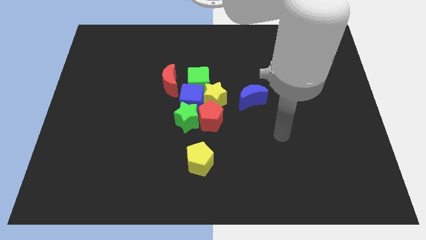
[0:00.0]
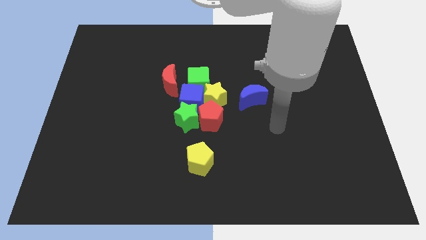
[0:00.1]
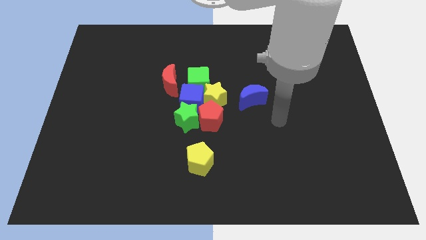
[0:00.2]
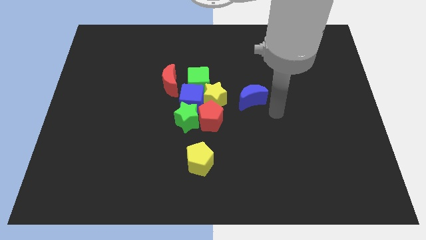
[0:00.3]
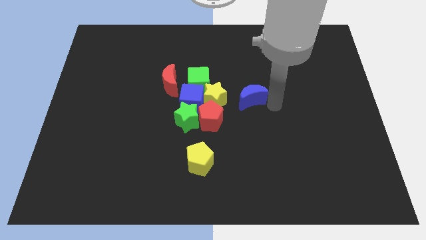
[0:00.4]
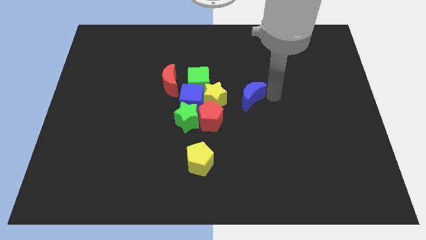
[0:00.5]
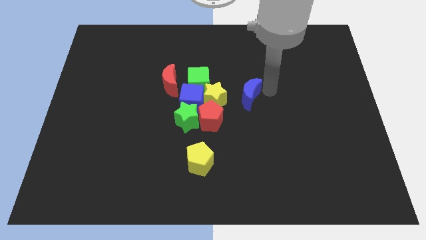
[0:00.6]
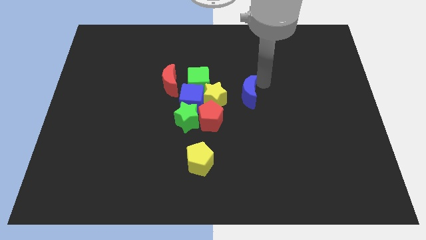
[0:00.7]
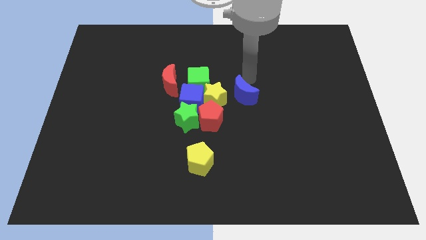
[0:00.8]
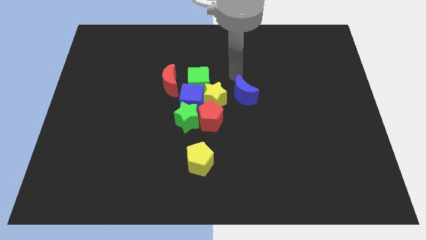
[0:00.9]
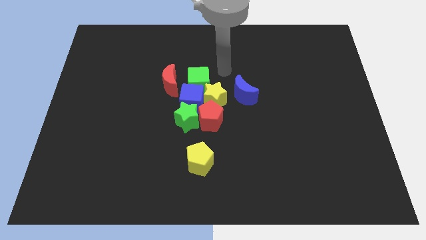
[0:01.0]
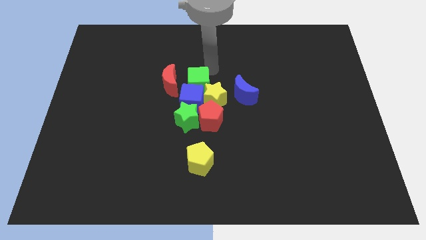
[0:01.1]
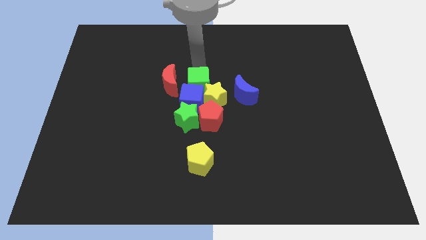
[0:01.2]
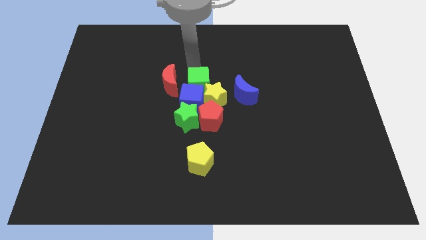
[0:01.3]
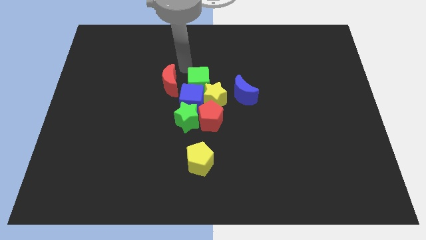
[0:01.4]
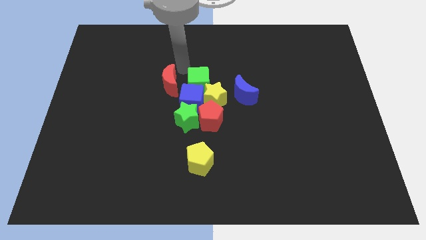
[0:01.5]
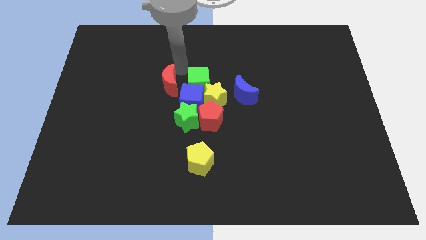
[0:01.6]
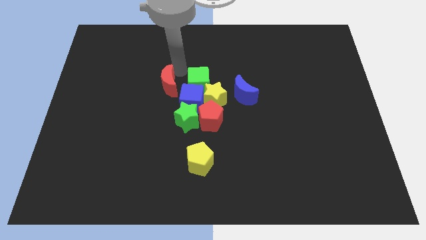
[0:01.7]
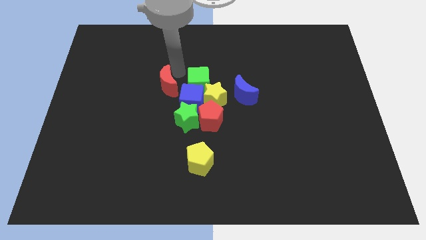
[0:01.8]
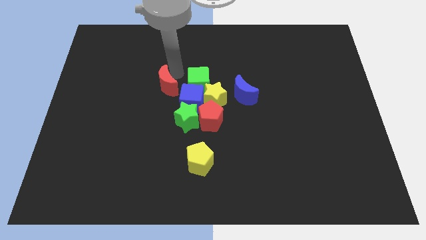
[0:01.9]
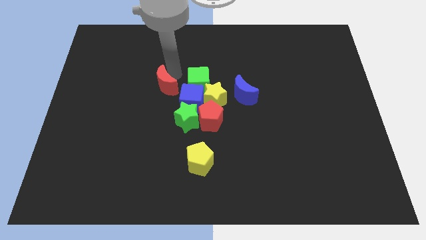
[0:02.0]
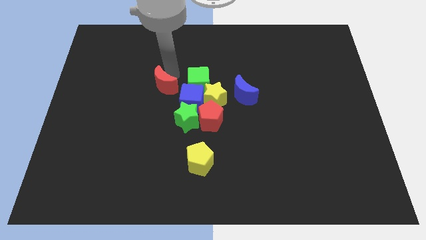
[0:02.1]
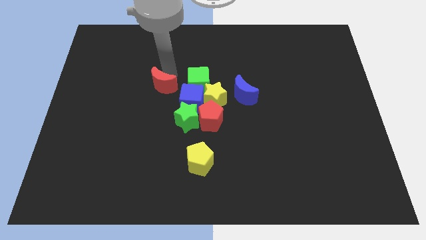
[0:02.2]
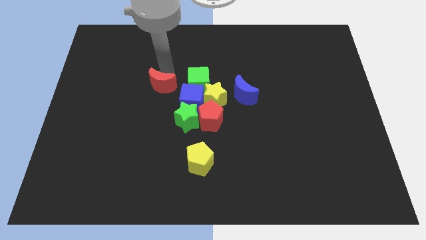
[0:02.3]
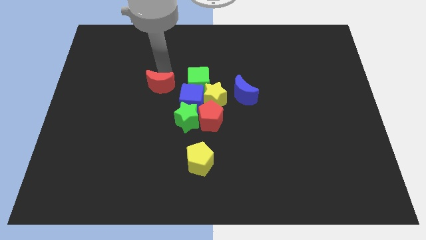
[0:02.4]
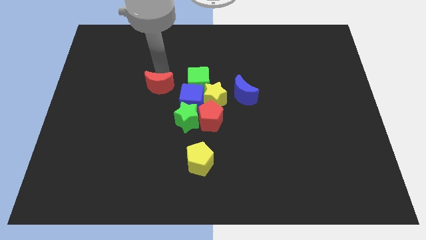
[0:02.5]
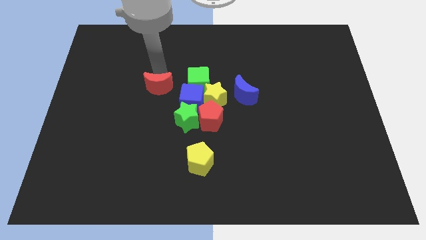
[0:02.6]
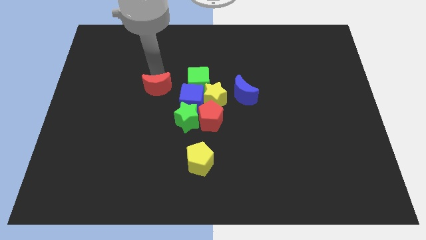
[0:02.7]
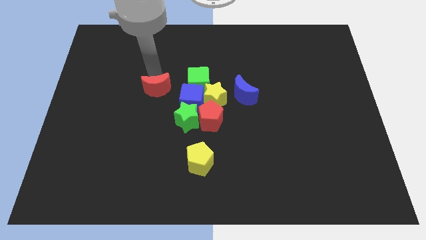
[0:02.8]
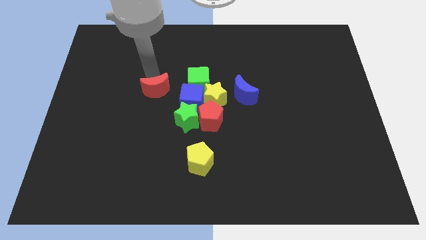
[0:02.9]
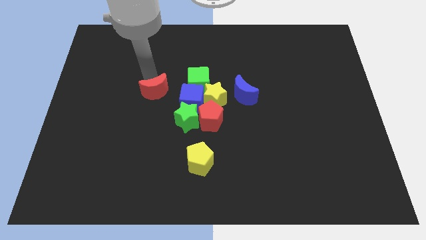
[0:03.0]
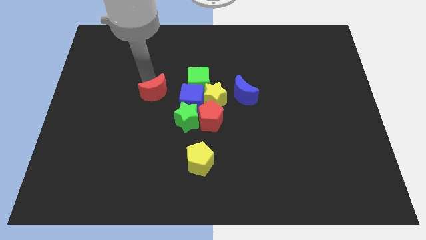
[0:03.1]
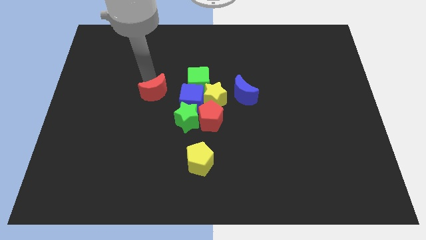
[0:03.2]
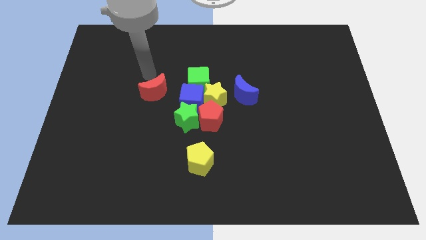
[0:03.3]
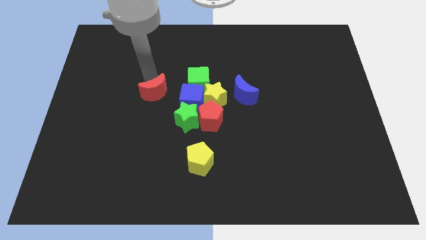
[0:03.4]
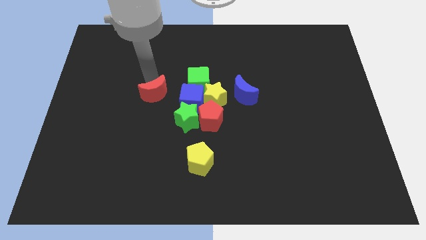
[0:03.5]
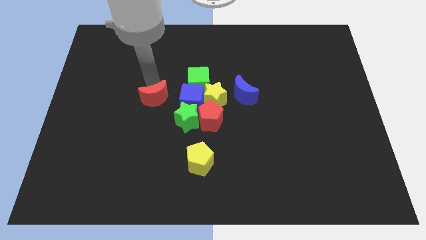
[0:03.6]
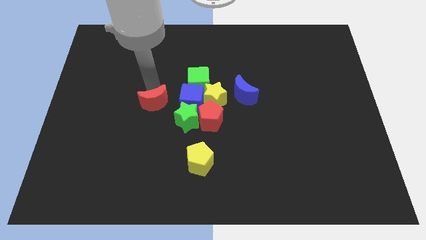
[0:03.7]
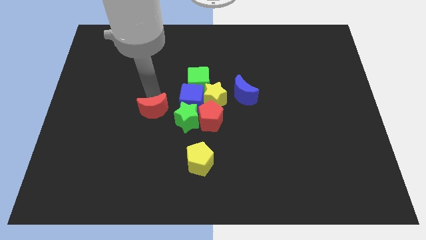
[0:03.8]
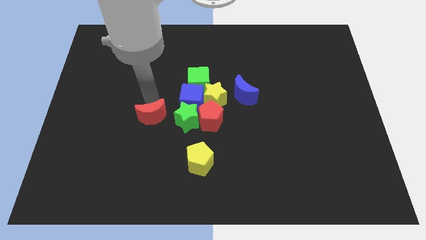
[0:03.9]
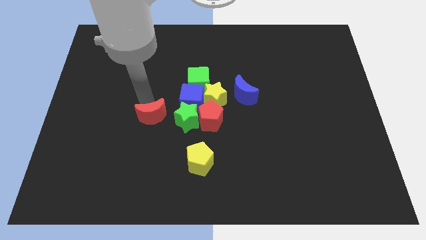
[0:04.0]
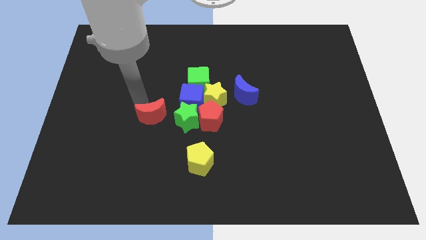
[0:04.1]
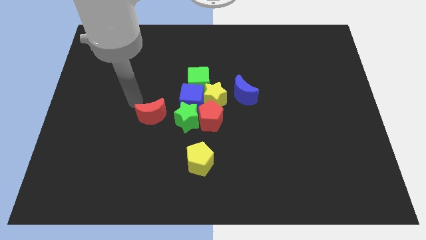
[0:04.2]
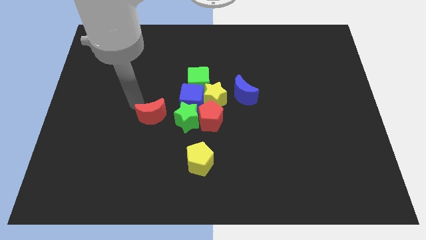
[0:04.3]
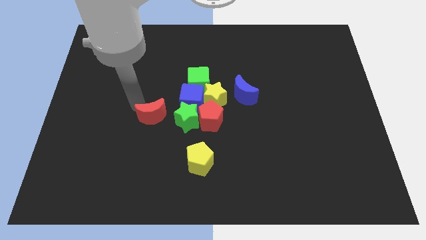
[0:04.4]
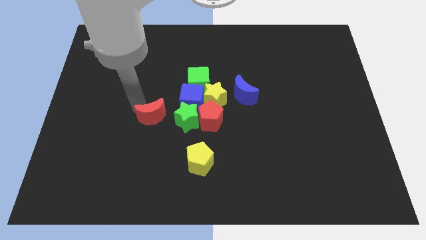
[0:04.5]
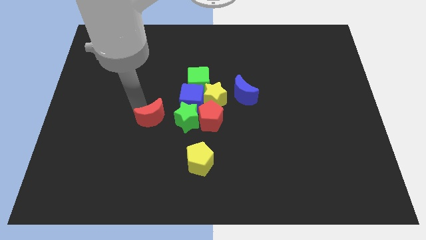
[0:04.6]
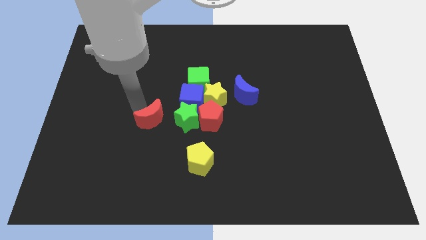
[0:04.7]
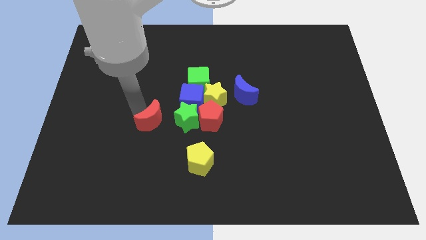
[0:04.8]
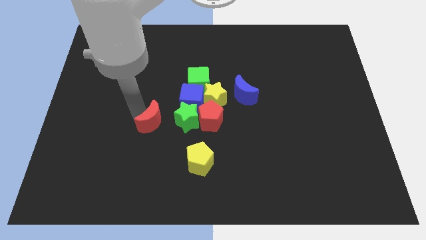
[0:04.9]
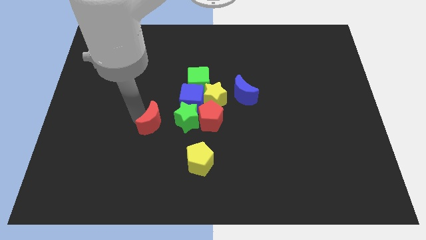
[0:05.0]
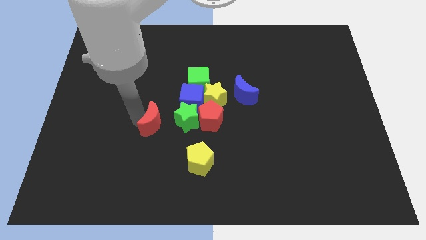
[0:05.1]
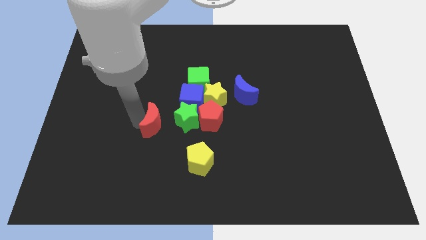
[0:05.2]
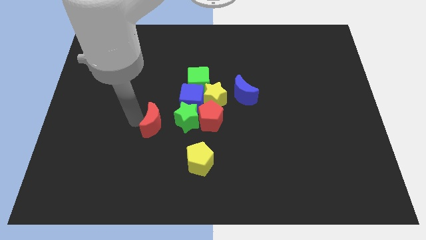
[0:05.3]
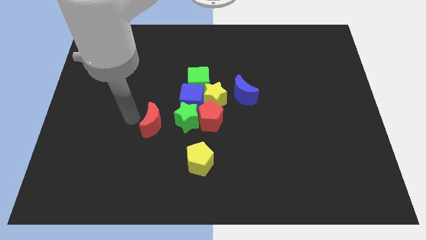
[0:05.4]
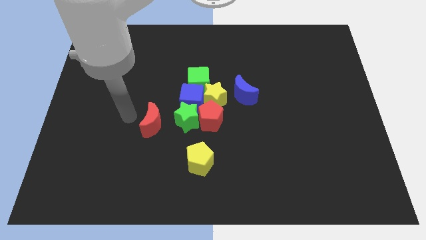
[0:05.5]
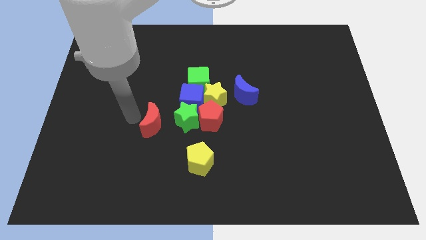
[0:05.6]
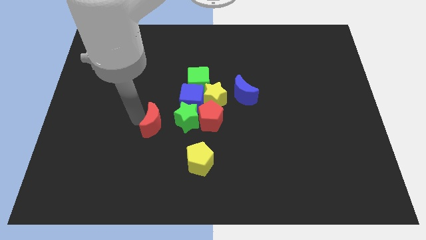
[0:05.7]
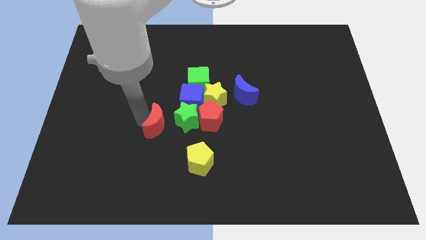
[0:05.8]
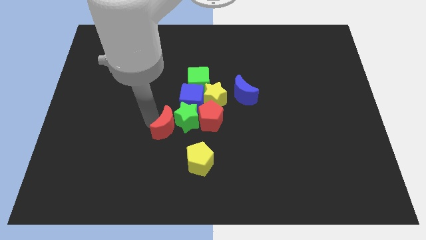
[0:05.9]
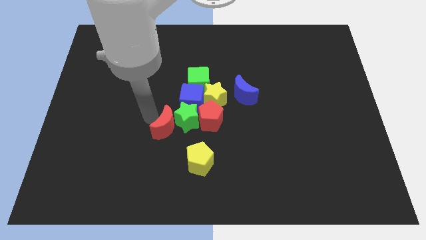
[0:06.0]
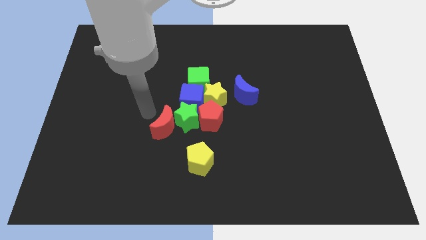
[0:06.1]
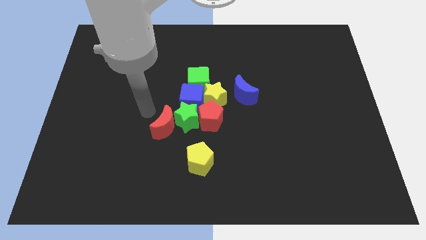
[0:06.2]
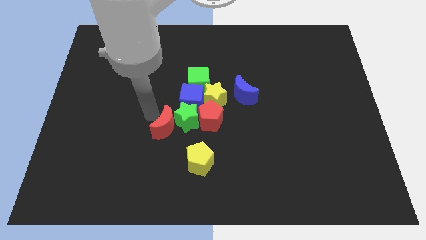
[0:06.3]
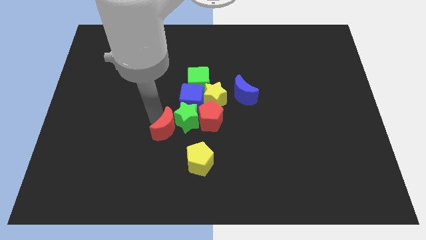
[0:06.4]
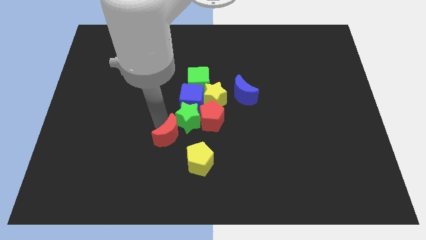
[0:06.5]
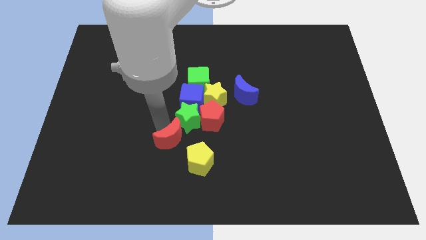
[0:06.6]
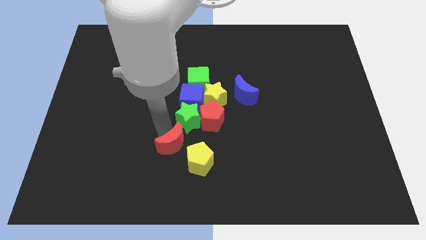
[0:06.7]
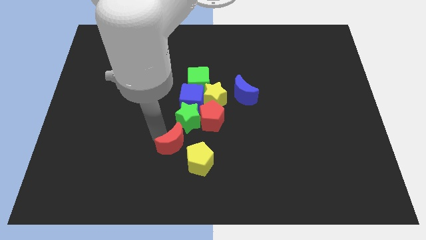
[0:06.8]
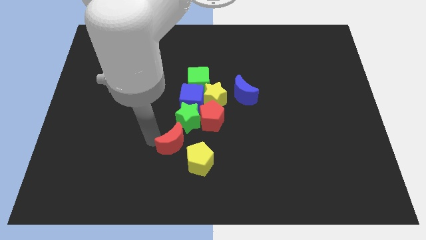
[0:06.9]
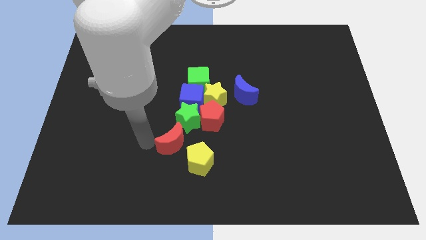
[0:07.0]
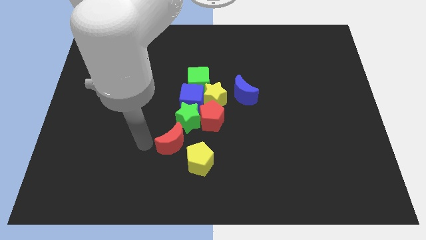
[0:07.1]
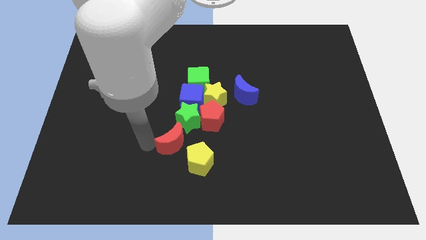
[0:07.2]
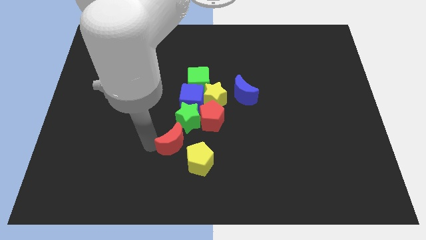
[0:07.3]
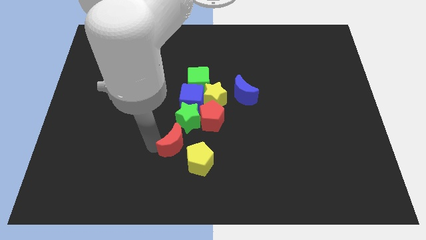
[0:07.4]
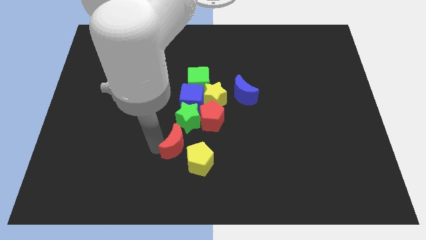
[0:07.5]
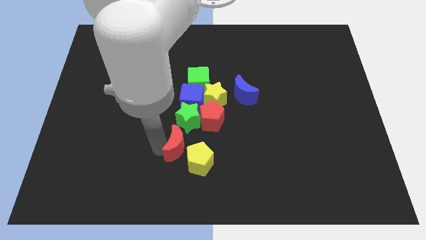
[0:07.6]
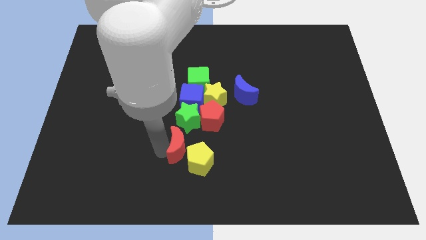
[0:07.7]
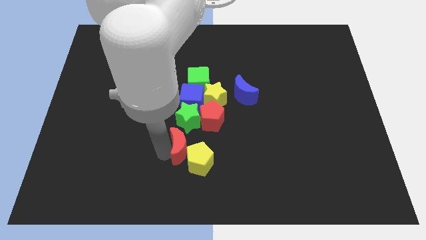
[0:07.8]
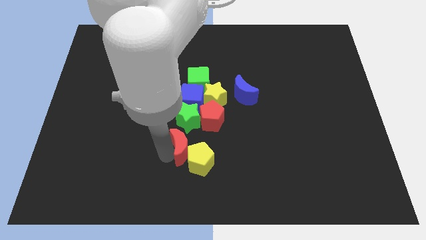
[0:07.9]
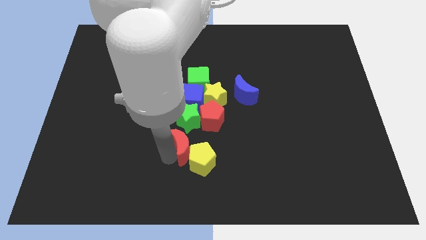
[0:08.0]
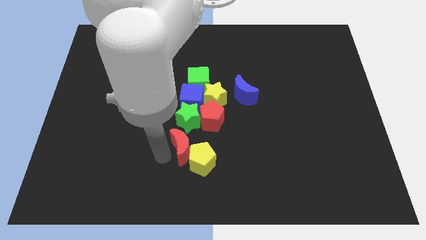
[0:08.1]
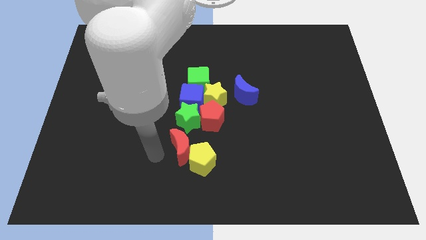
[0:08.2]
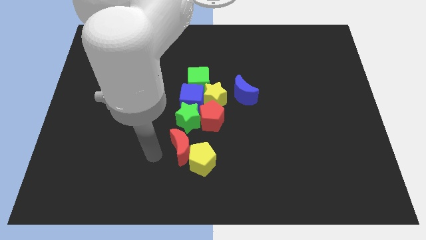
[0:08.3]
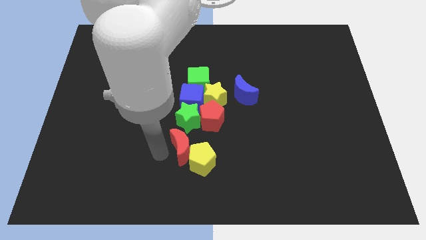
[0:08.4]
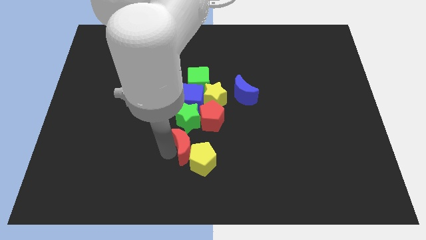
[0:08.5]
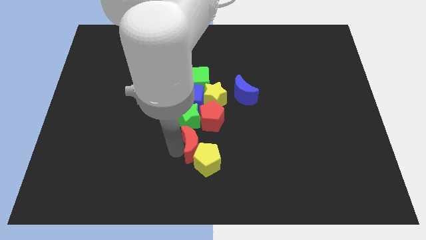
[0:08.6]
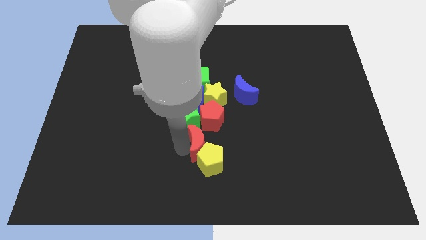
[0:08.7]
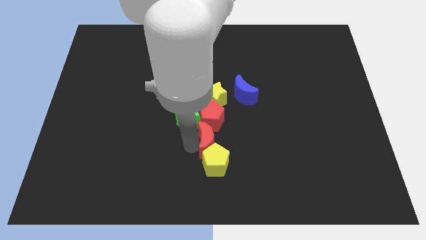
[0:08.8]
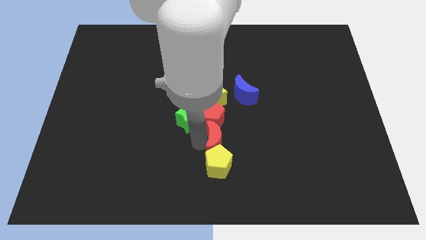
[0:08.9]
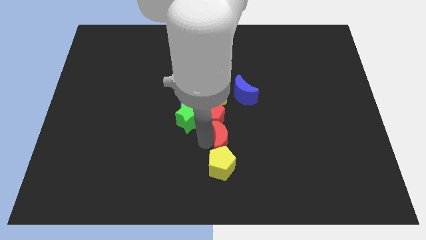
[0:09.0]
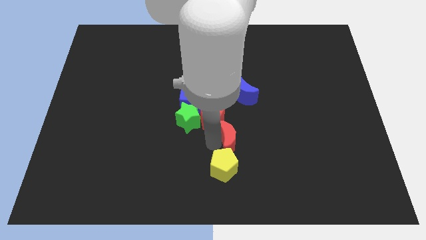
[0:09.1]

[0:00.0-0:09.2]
push the red moon to the bottom of the blue moon
